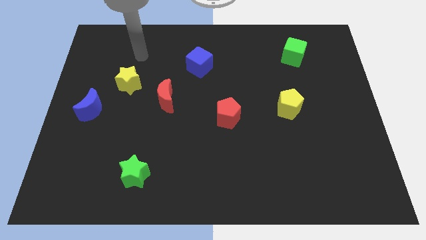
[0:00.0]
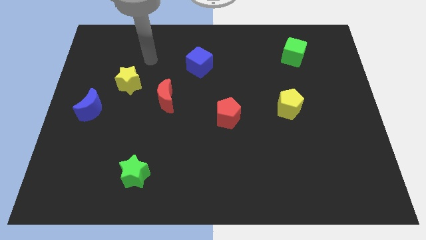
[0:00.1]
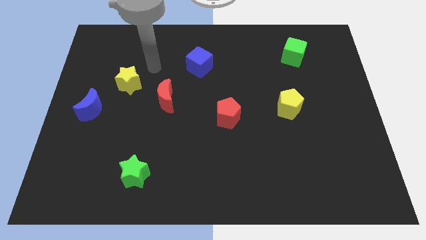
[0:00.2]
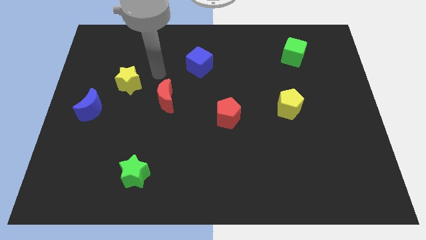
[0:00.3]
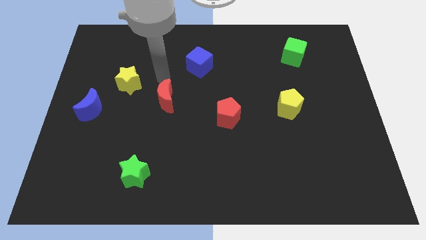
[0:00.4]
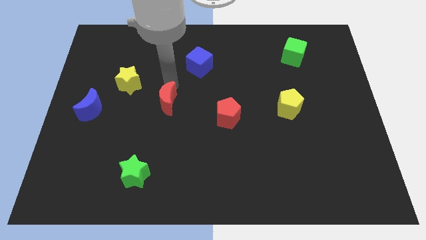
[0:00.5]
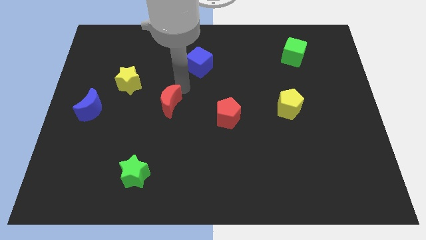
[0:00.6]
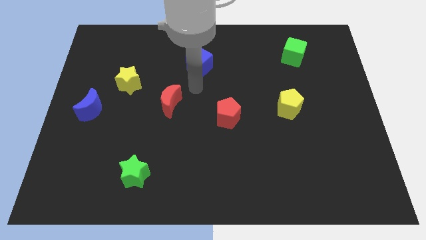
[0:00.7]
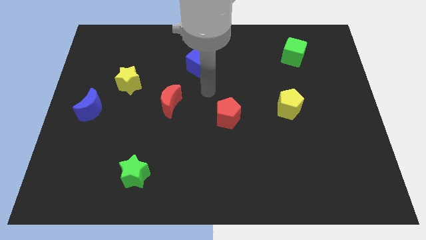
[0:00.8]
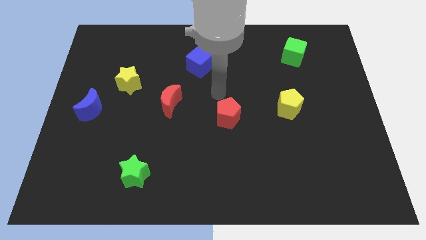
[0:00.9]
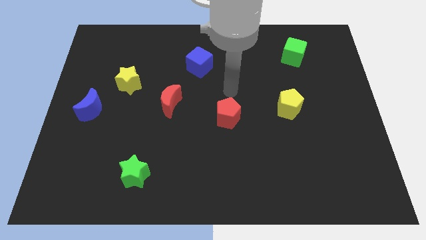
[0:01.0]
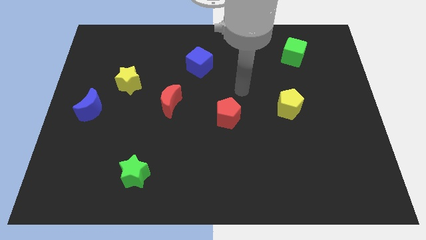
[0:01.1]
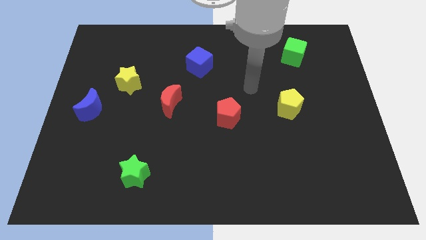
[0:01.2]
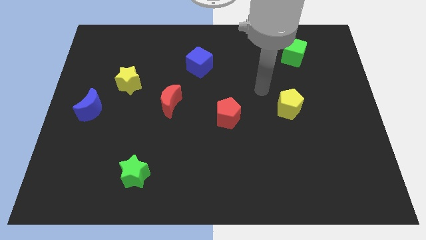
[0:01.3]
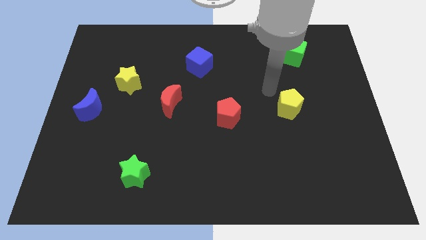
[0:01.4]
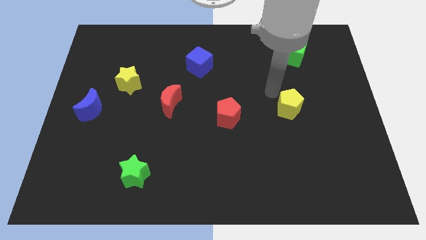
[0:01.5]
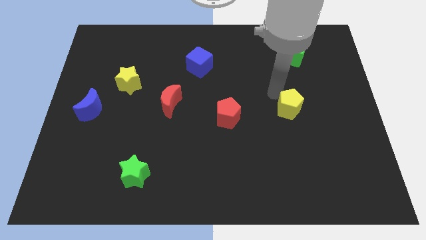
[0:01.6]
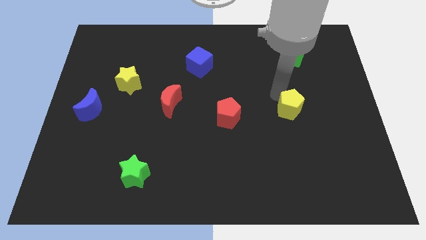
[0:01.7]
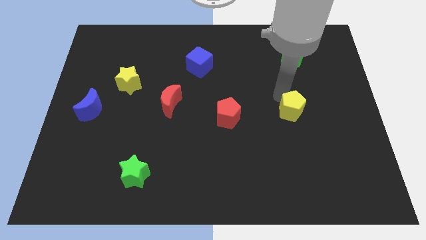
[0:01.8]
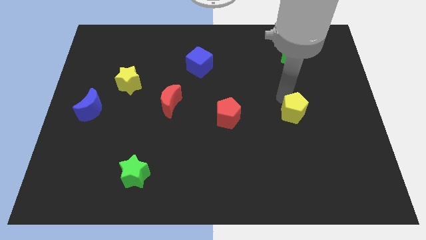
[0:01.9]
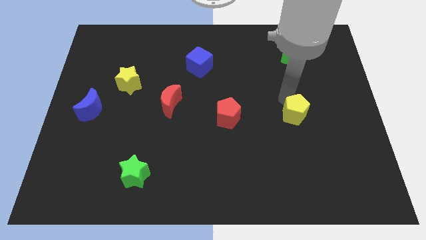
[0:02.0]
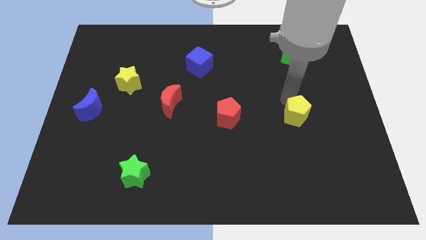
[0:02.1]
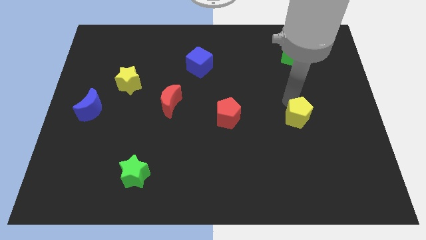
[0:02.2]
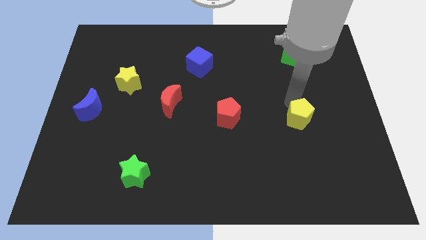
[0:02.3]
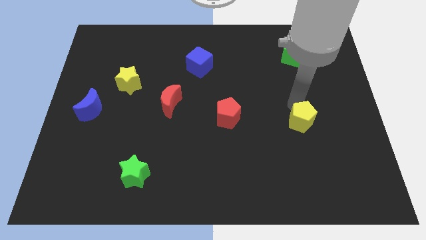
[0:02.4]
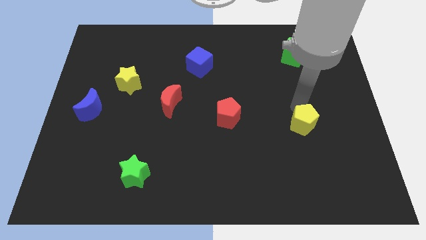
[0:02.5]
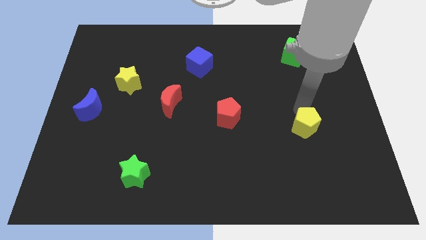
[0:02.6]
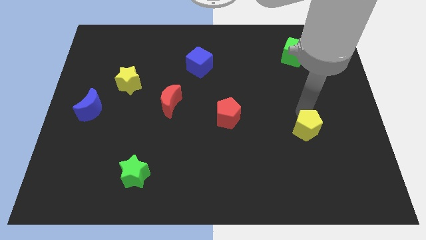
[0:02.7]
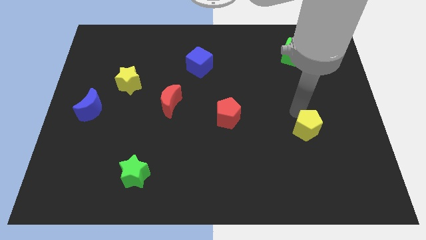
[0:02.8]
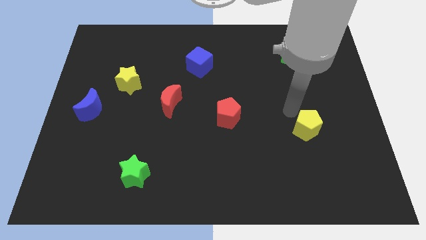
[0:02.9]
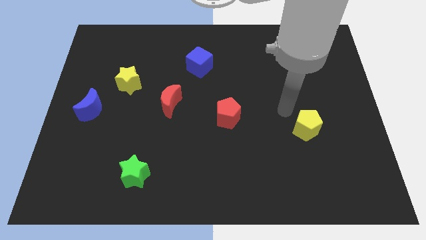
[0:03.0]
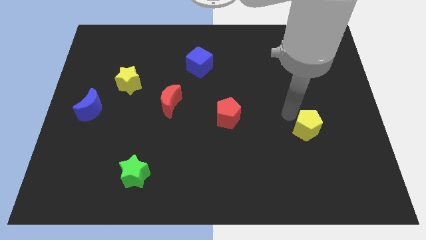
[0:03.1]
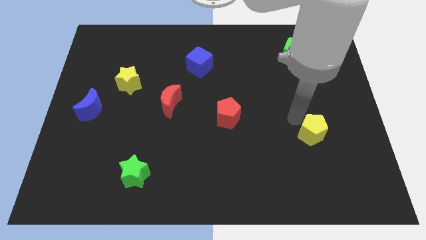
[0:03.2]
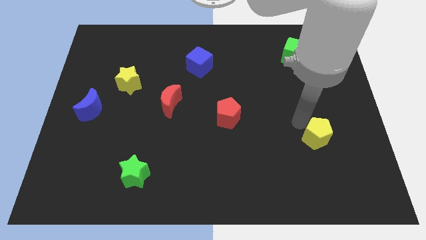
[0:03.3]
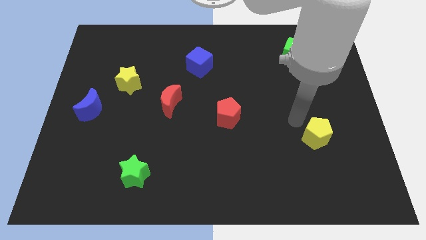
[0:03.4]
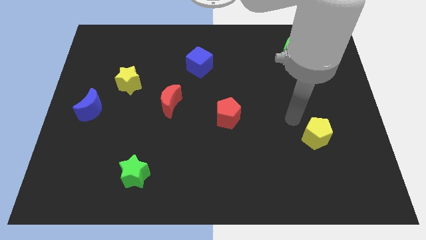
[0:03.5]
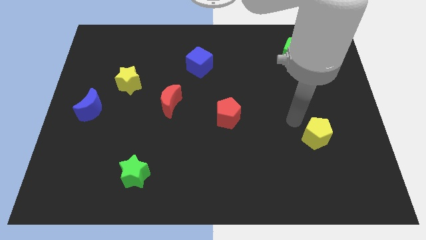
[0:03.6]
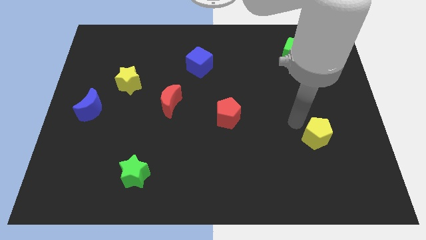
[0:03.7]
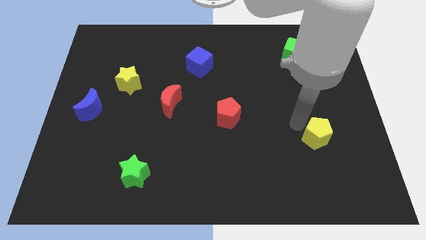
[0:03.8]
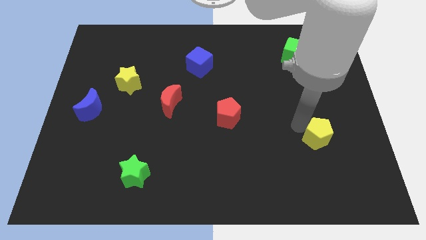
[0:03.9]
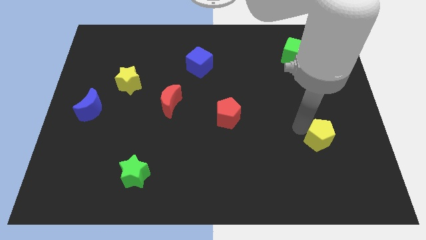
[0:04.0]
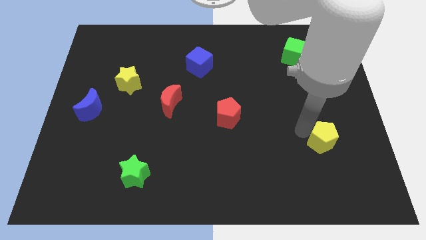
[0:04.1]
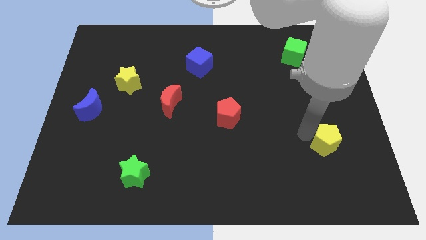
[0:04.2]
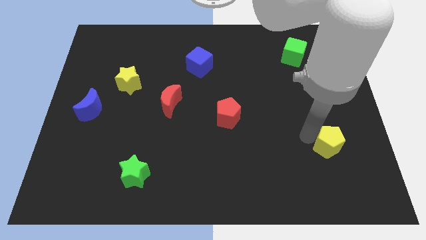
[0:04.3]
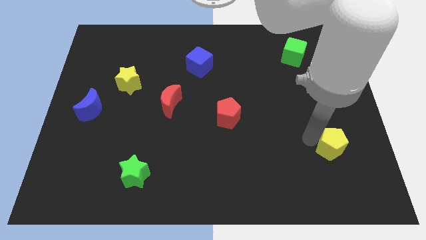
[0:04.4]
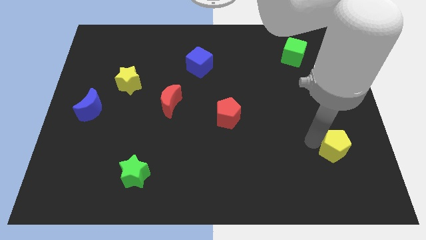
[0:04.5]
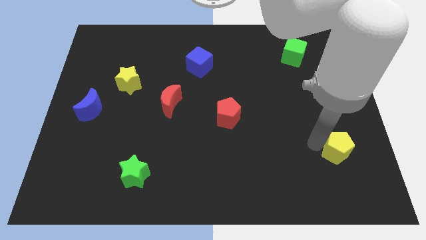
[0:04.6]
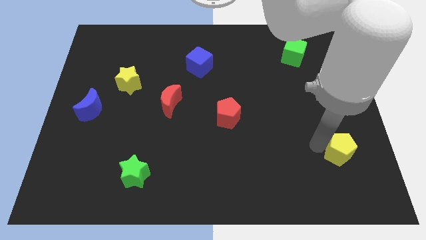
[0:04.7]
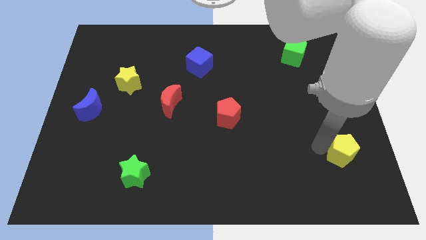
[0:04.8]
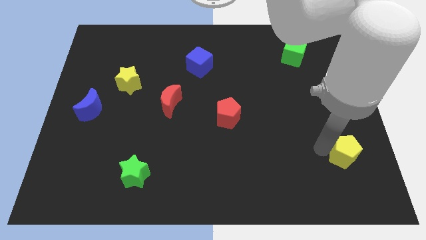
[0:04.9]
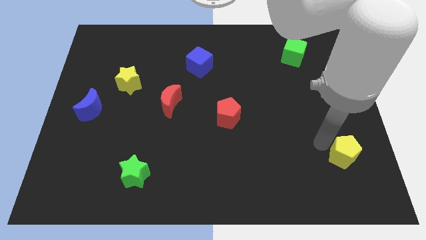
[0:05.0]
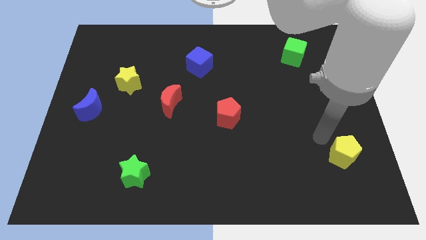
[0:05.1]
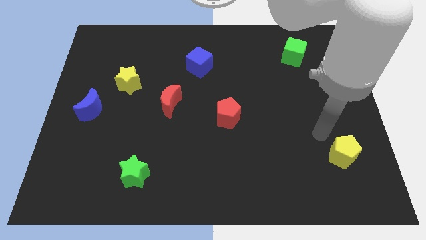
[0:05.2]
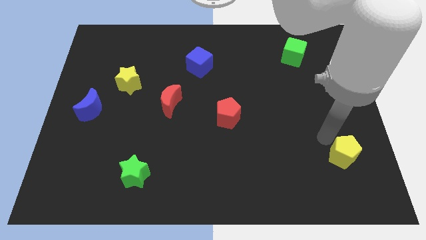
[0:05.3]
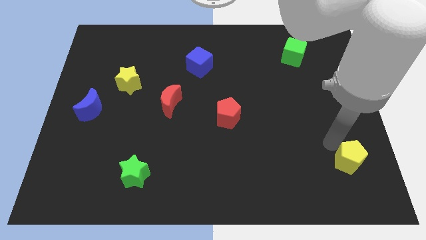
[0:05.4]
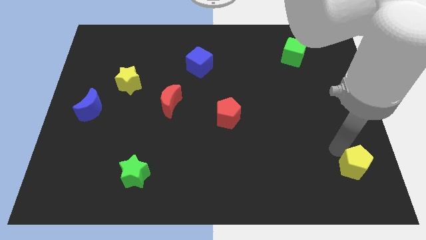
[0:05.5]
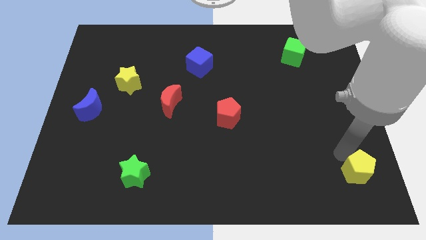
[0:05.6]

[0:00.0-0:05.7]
push the yellow pentagon to the bottom right

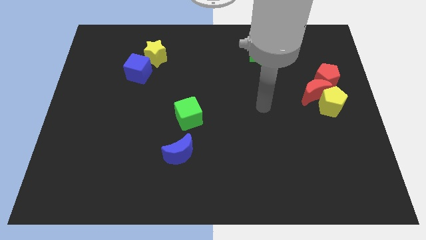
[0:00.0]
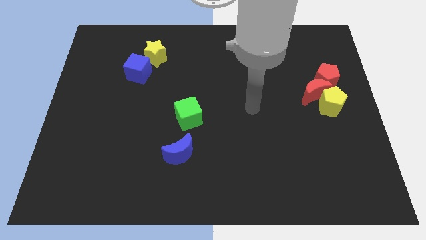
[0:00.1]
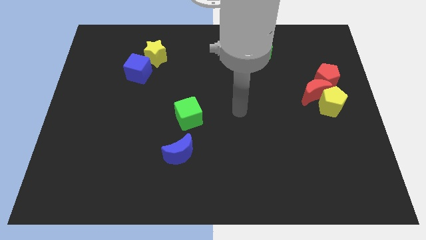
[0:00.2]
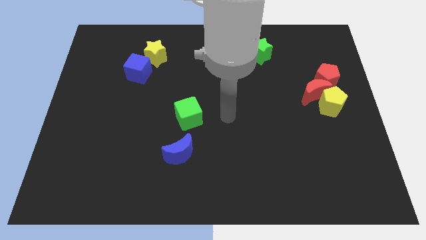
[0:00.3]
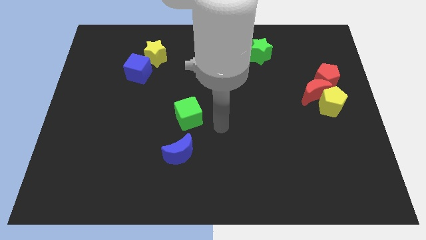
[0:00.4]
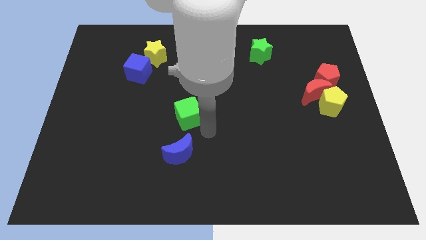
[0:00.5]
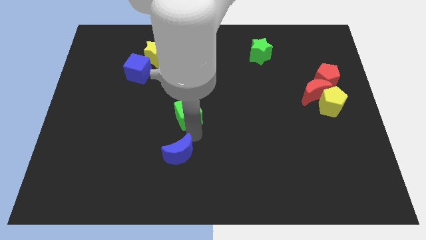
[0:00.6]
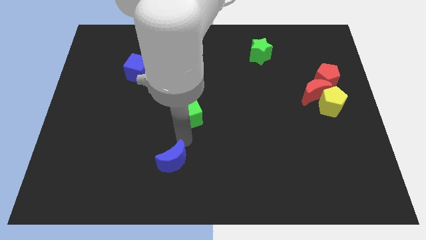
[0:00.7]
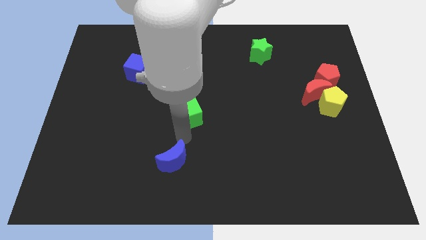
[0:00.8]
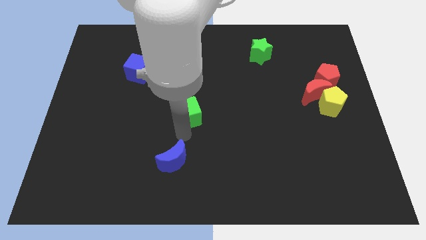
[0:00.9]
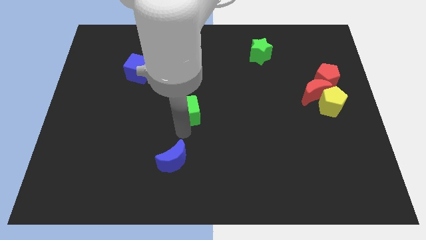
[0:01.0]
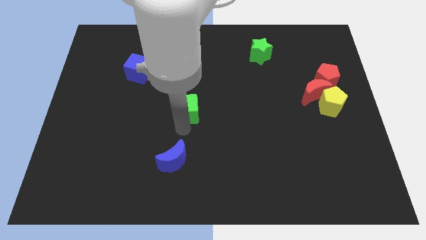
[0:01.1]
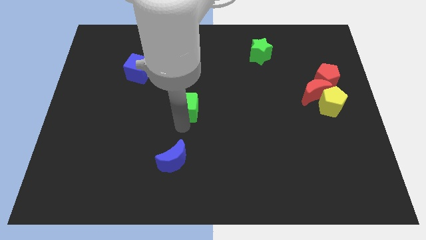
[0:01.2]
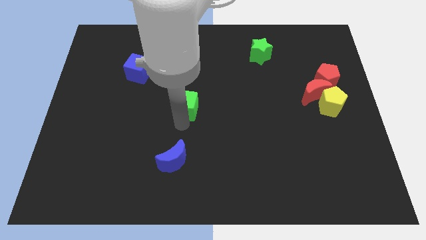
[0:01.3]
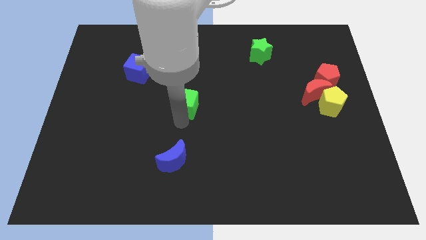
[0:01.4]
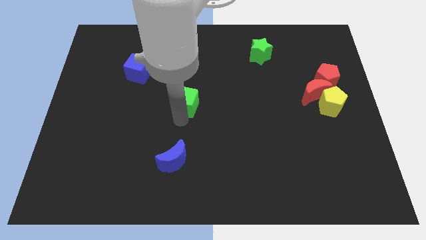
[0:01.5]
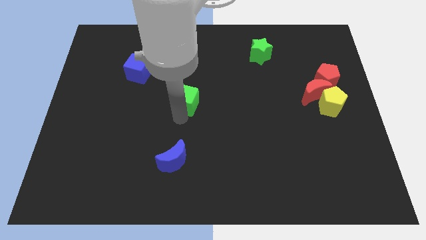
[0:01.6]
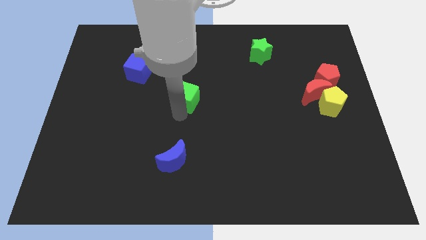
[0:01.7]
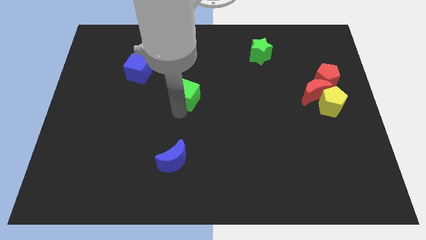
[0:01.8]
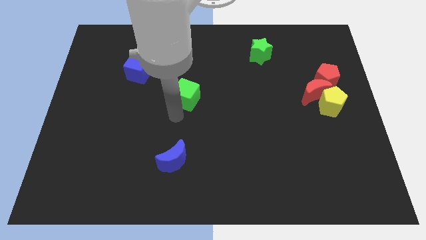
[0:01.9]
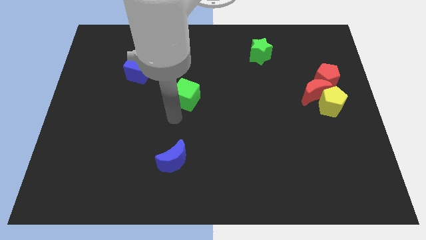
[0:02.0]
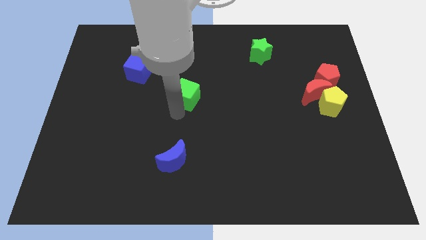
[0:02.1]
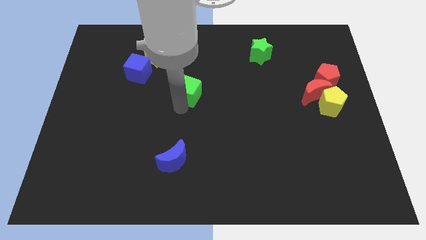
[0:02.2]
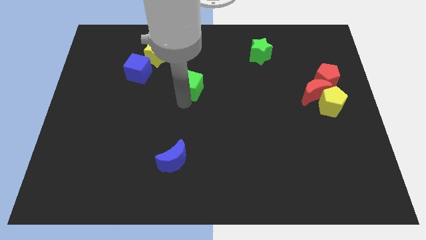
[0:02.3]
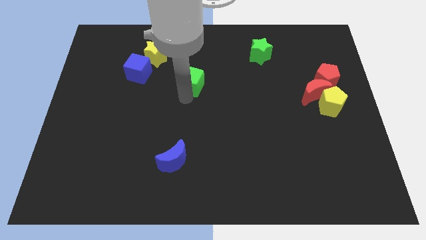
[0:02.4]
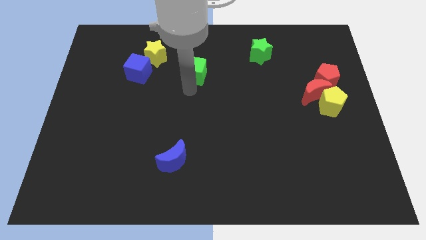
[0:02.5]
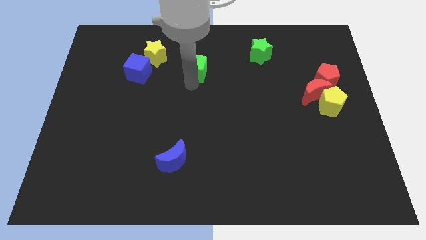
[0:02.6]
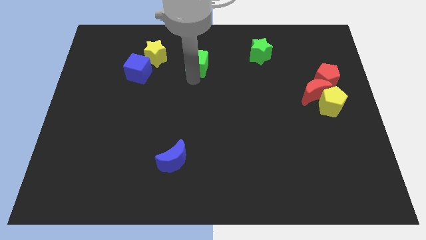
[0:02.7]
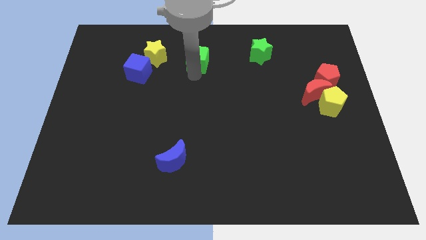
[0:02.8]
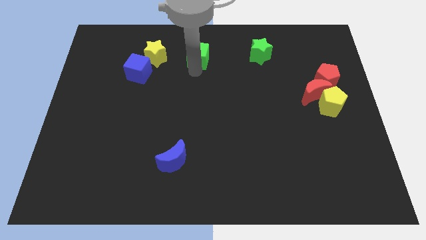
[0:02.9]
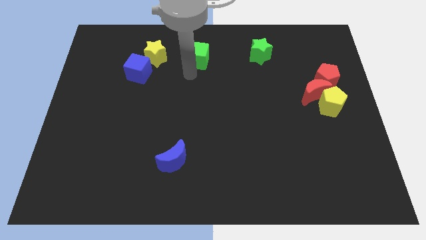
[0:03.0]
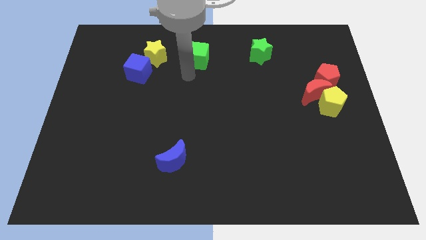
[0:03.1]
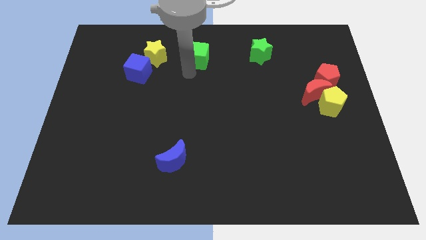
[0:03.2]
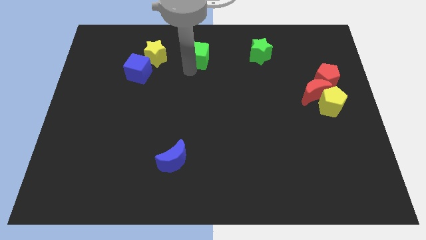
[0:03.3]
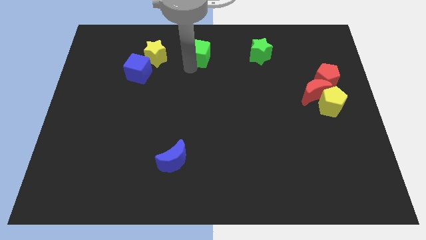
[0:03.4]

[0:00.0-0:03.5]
move the green cube to the towards your base
